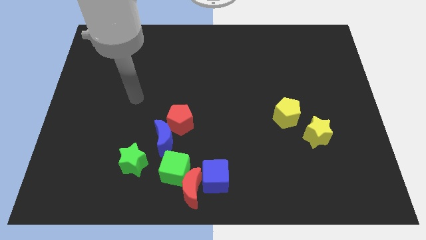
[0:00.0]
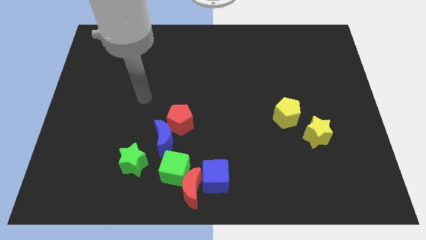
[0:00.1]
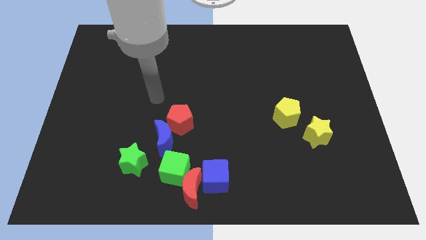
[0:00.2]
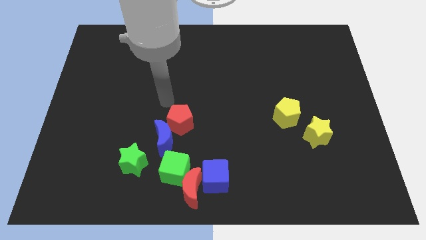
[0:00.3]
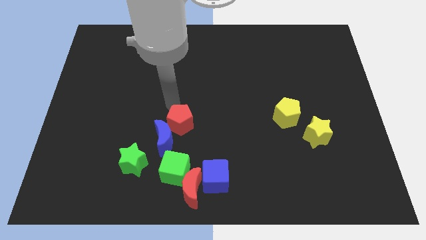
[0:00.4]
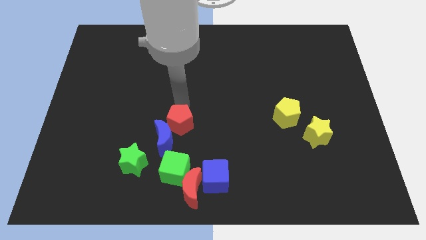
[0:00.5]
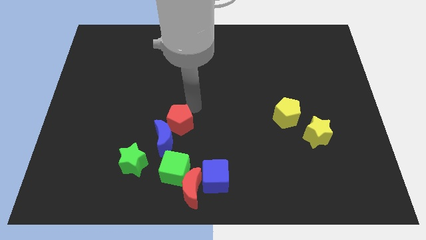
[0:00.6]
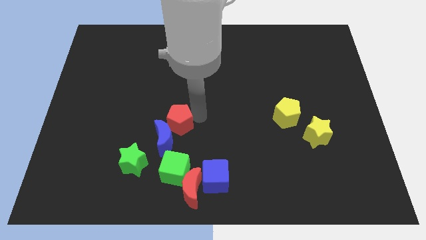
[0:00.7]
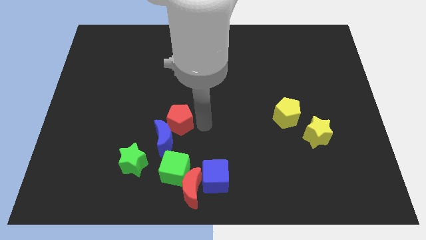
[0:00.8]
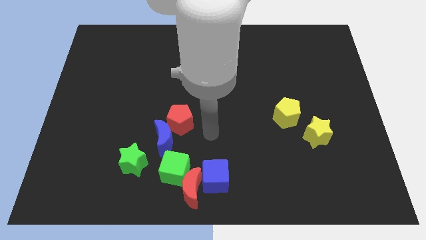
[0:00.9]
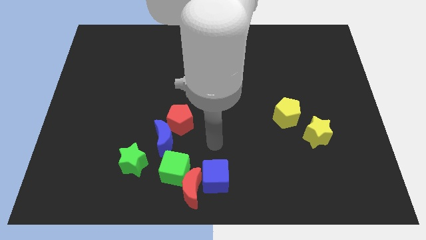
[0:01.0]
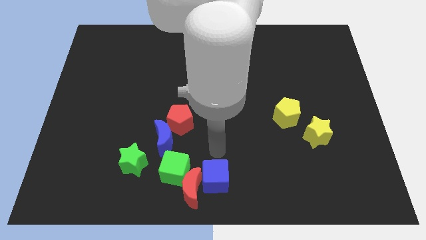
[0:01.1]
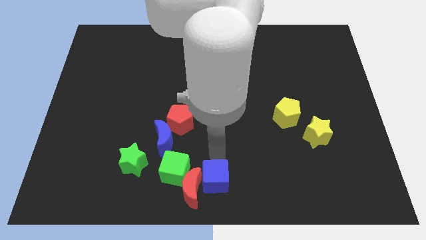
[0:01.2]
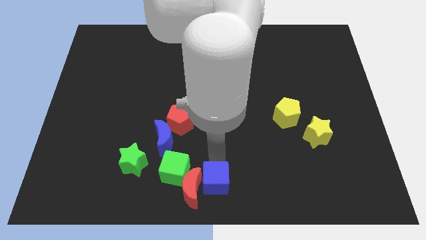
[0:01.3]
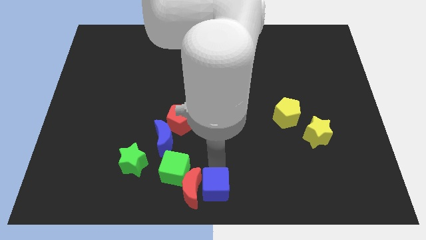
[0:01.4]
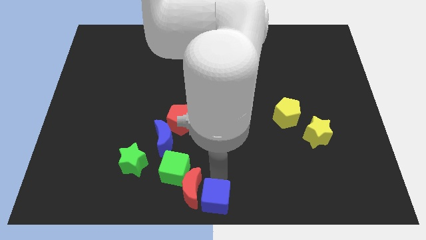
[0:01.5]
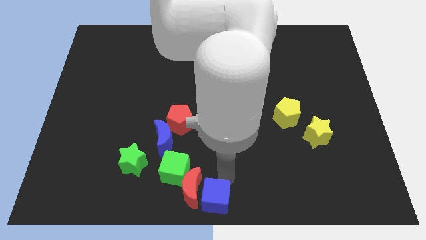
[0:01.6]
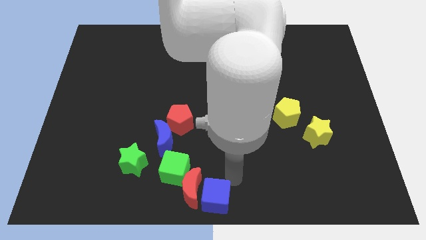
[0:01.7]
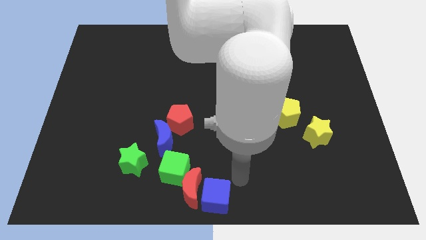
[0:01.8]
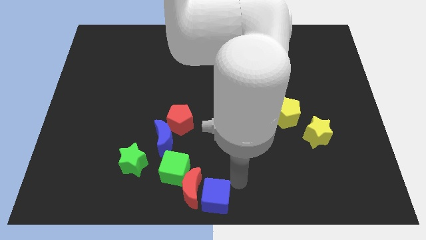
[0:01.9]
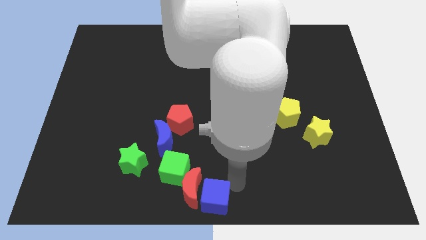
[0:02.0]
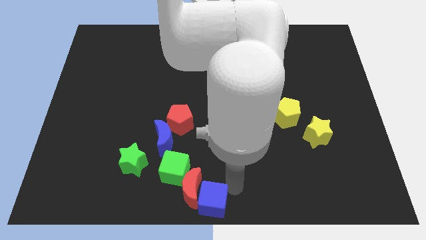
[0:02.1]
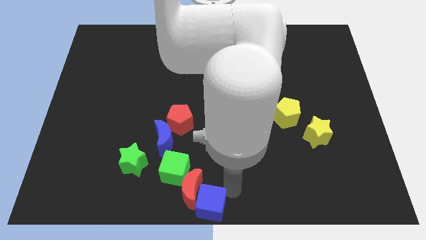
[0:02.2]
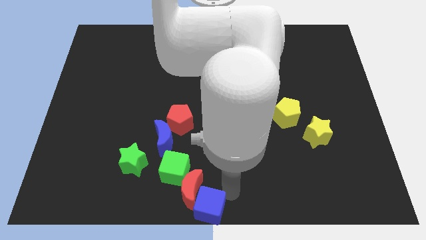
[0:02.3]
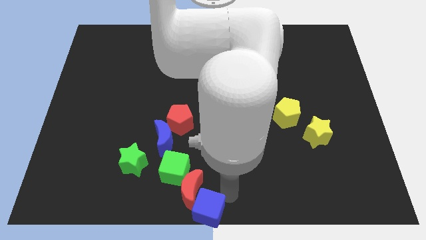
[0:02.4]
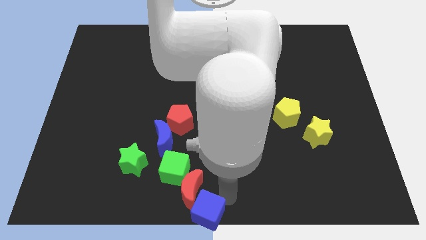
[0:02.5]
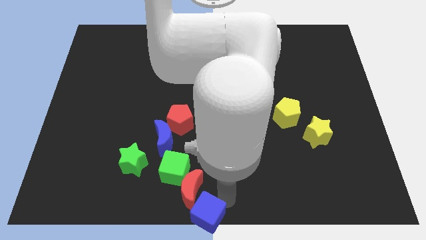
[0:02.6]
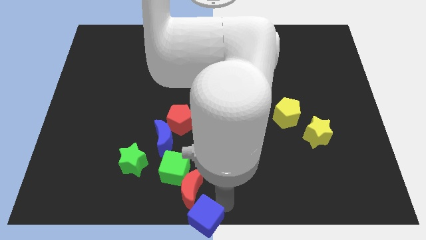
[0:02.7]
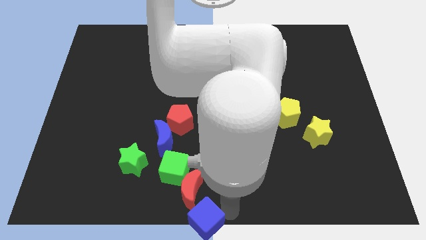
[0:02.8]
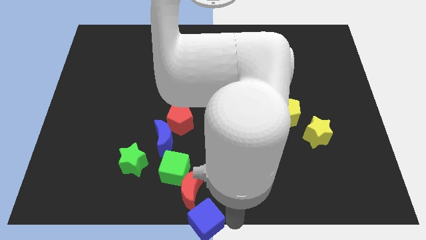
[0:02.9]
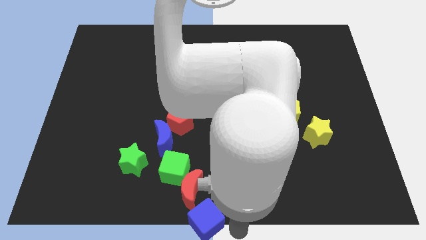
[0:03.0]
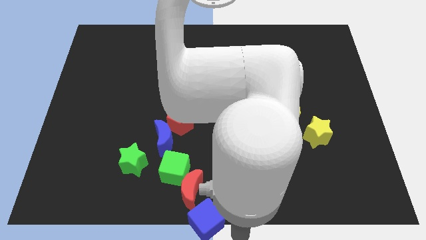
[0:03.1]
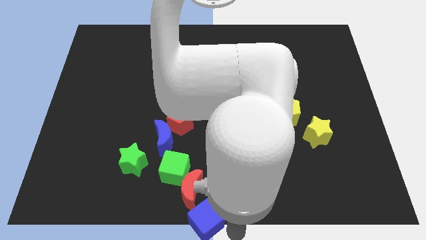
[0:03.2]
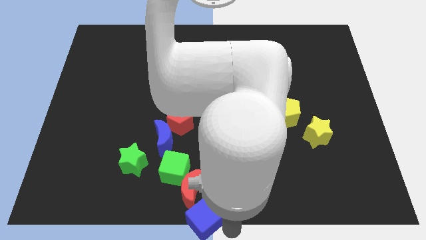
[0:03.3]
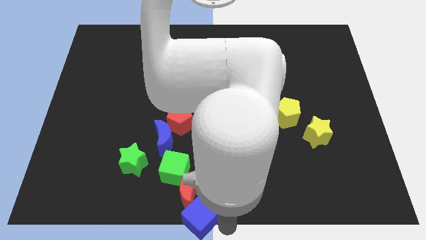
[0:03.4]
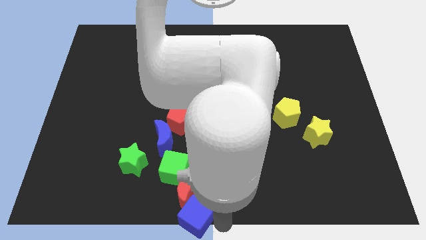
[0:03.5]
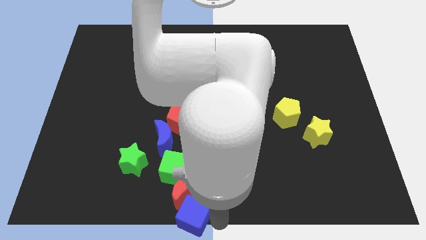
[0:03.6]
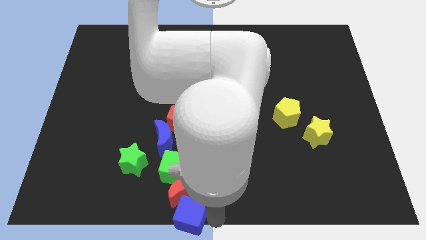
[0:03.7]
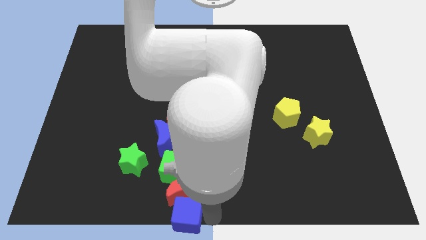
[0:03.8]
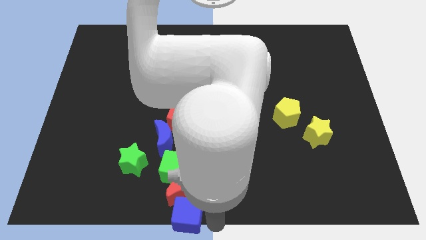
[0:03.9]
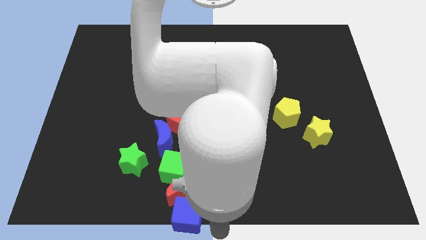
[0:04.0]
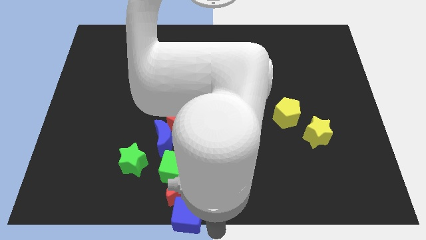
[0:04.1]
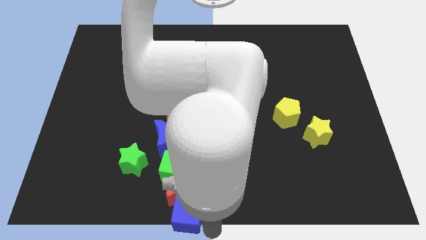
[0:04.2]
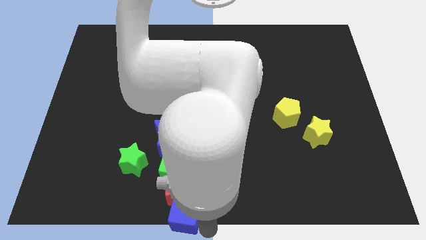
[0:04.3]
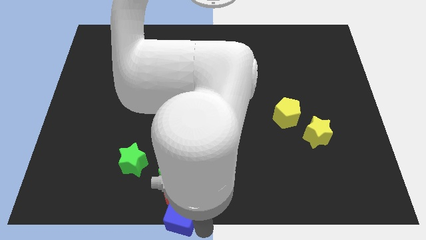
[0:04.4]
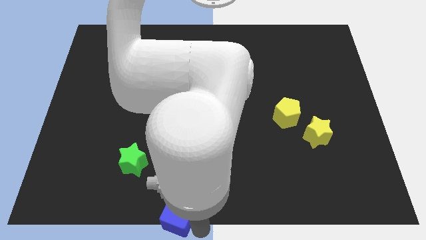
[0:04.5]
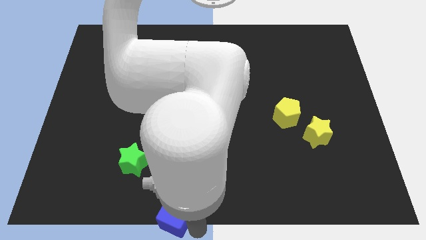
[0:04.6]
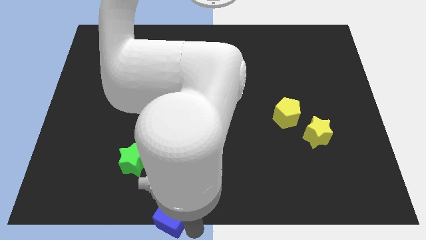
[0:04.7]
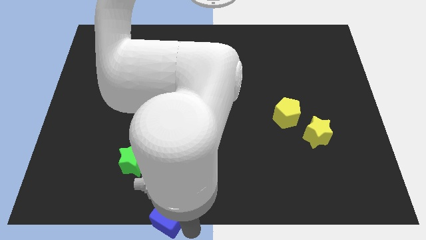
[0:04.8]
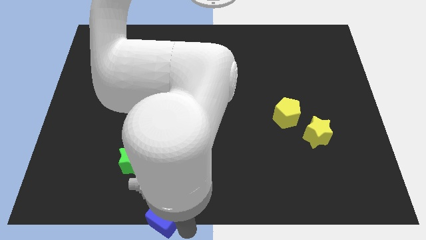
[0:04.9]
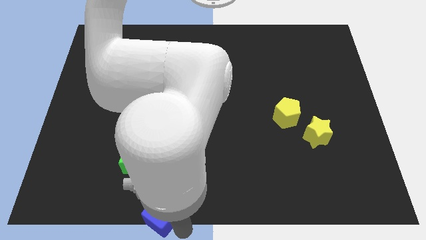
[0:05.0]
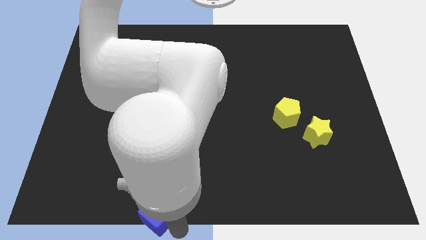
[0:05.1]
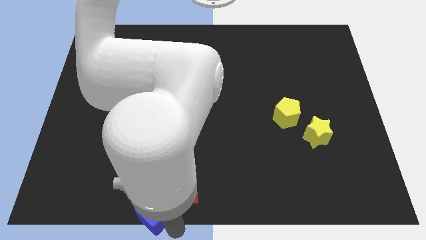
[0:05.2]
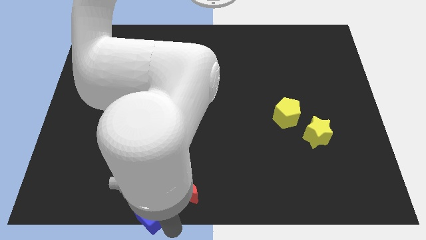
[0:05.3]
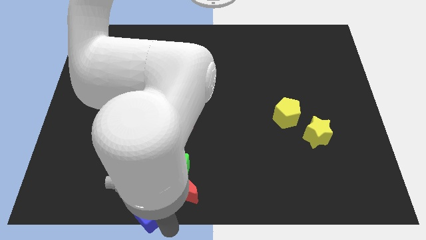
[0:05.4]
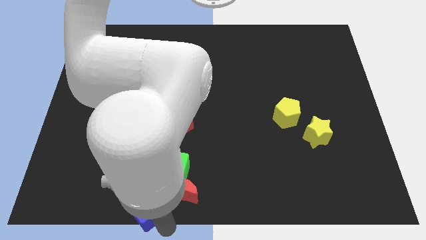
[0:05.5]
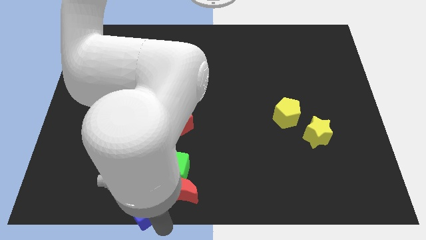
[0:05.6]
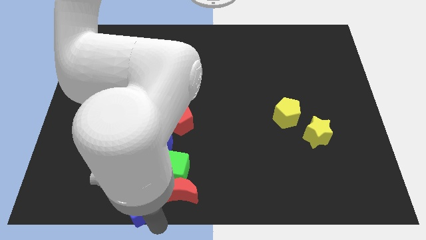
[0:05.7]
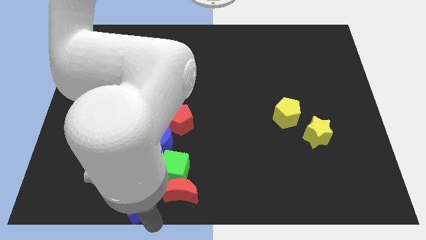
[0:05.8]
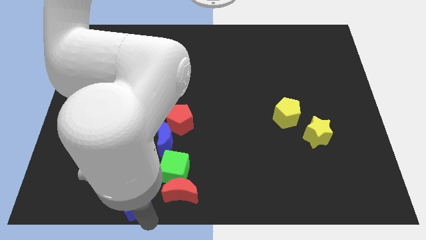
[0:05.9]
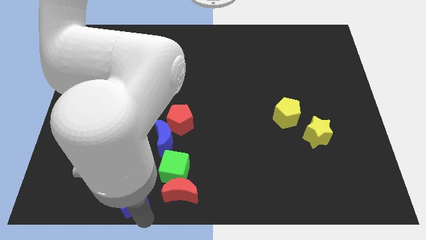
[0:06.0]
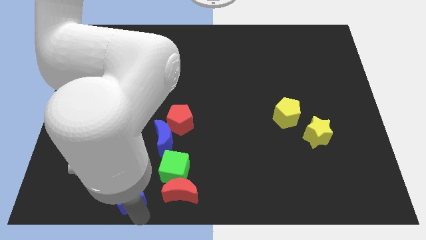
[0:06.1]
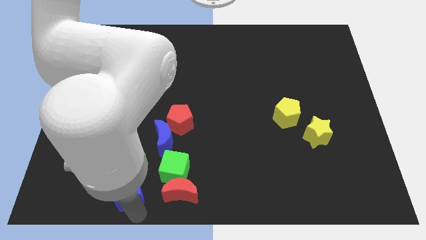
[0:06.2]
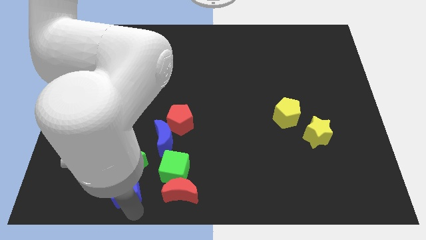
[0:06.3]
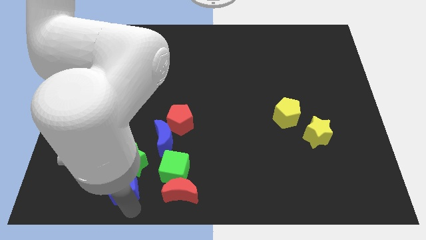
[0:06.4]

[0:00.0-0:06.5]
put the blue cube to the green star

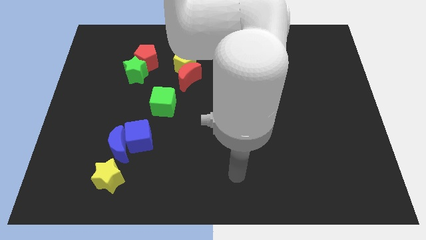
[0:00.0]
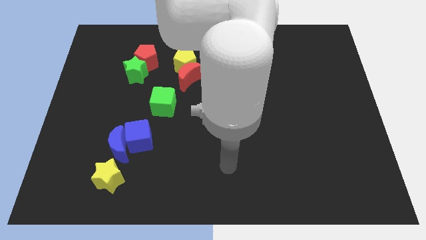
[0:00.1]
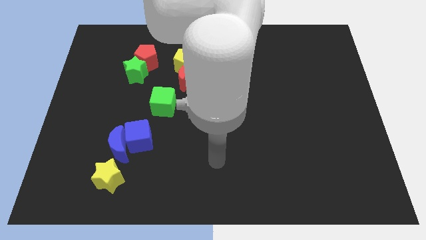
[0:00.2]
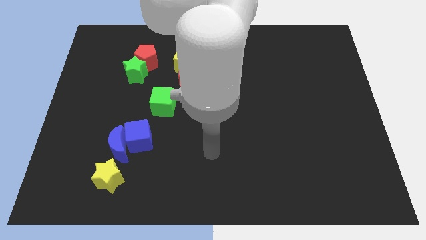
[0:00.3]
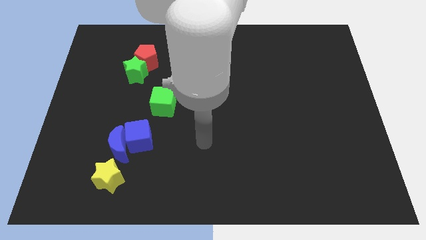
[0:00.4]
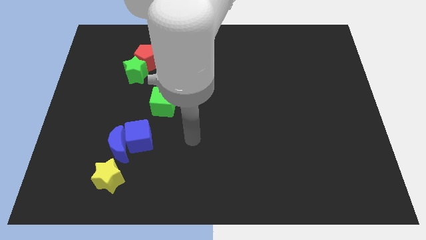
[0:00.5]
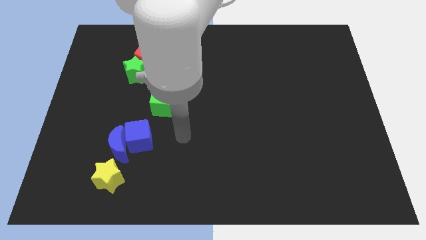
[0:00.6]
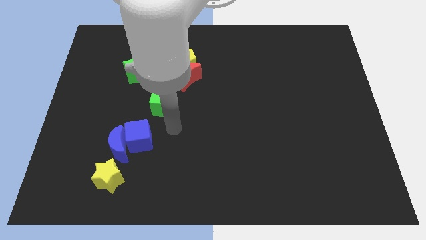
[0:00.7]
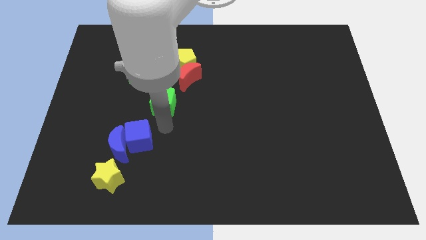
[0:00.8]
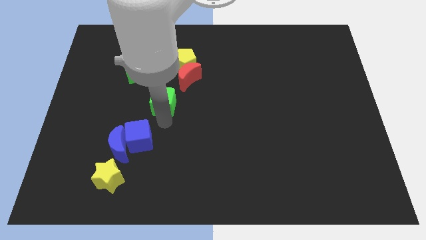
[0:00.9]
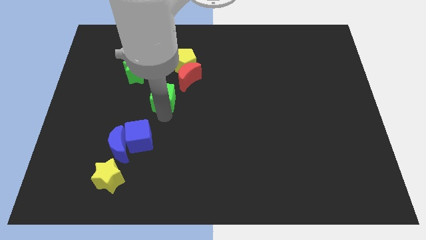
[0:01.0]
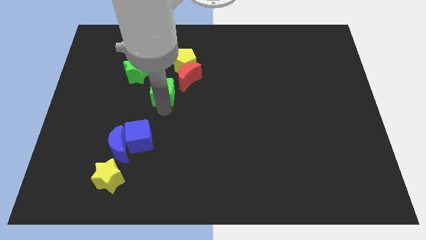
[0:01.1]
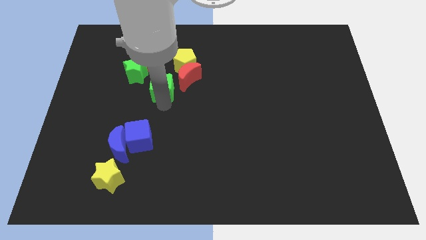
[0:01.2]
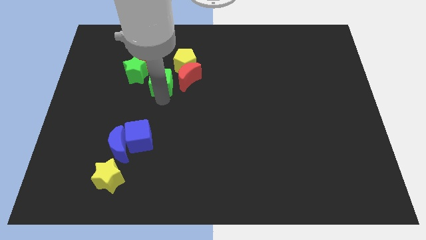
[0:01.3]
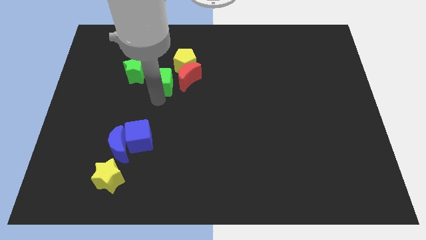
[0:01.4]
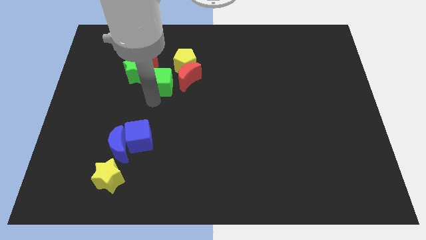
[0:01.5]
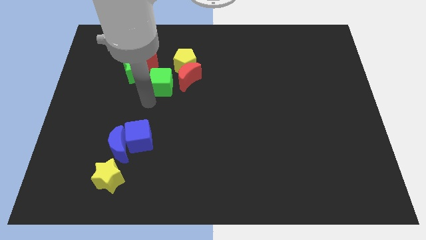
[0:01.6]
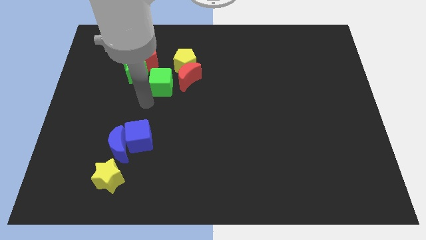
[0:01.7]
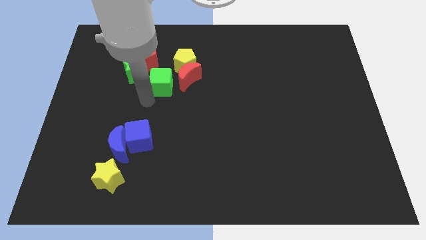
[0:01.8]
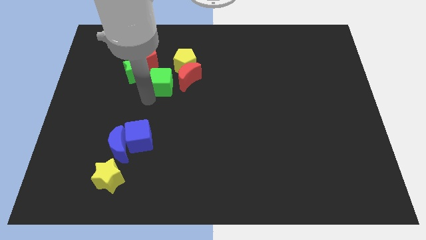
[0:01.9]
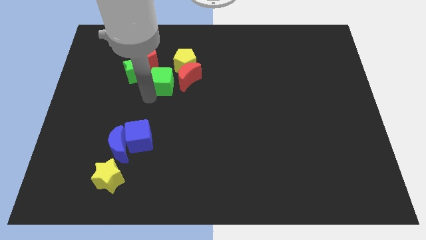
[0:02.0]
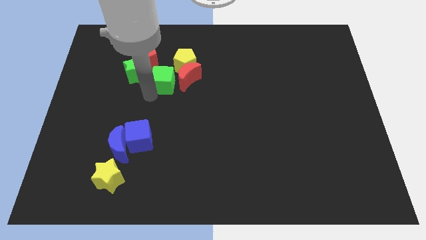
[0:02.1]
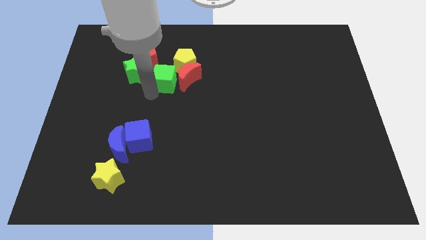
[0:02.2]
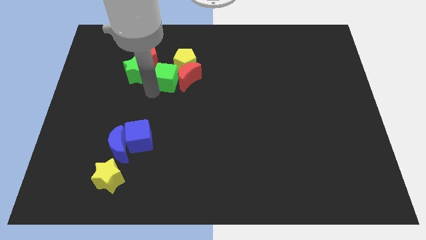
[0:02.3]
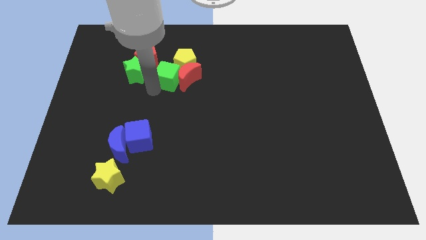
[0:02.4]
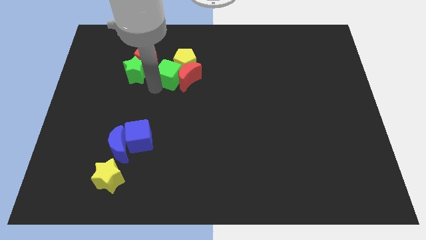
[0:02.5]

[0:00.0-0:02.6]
slide the green cube towards the yellow pentagon
